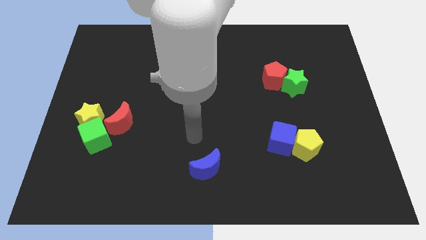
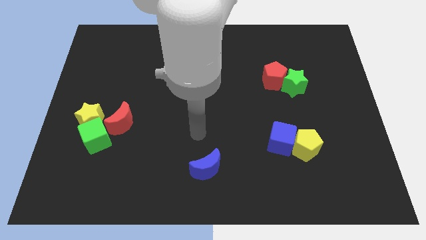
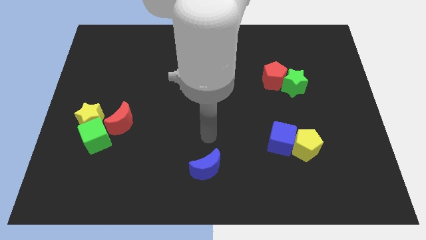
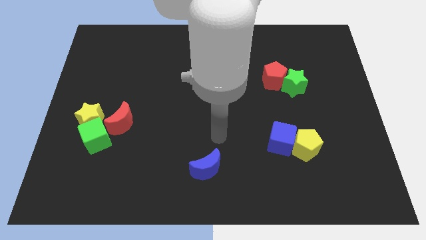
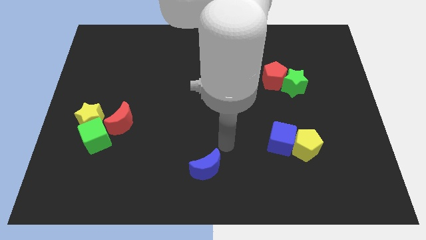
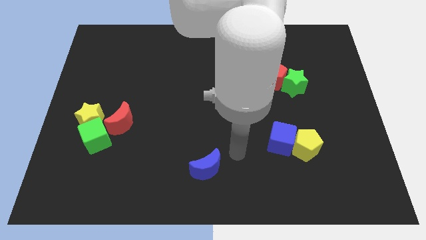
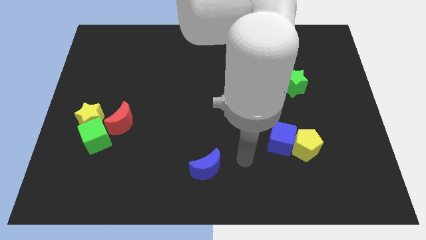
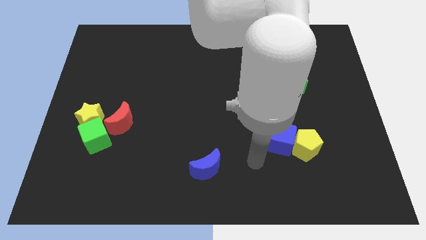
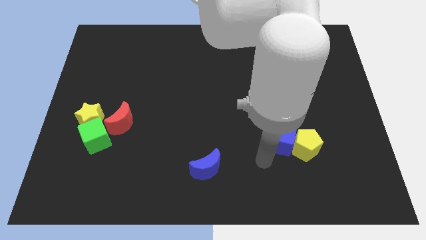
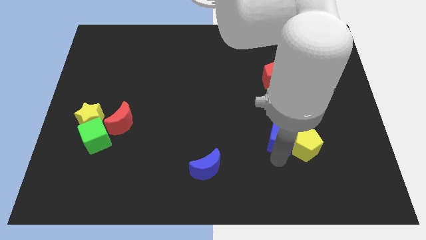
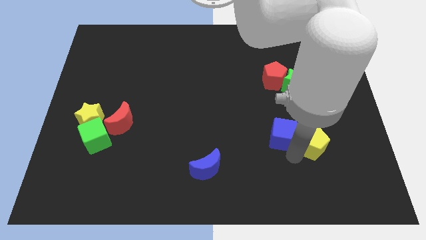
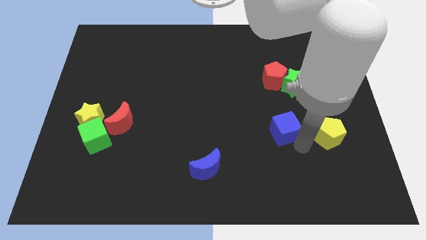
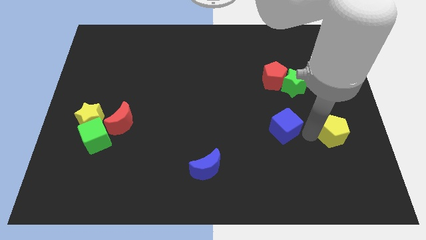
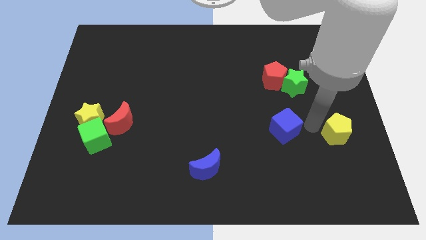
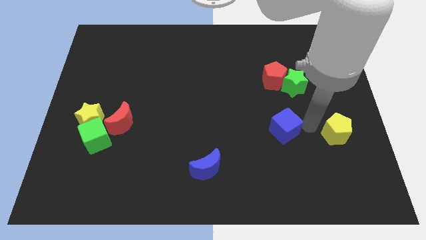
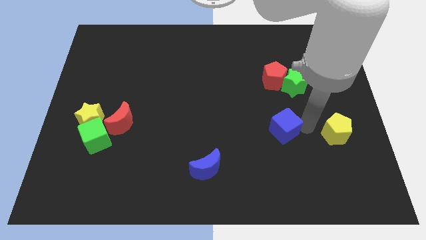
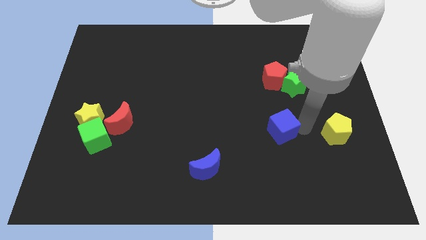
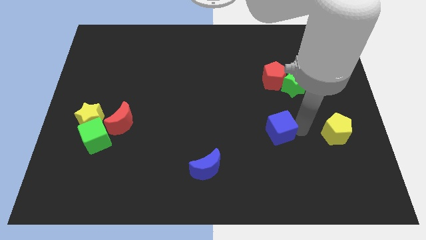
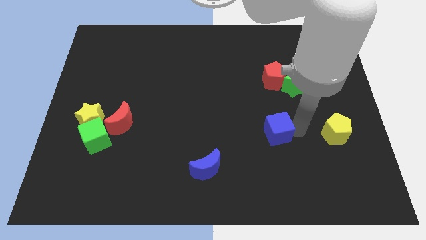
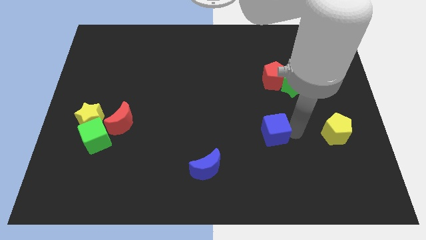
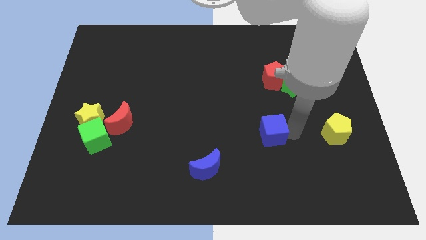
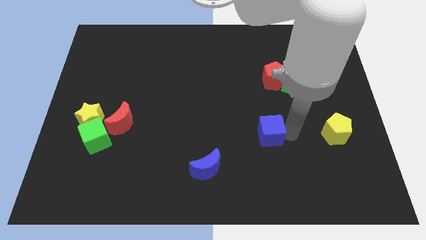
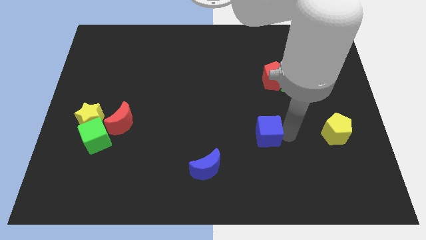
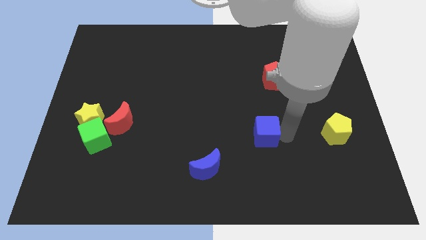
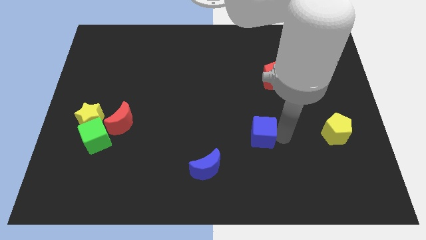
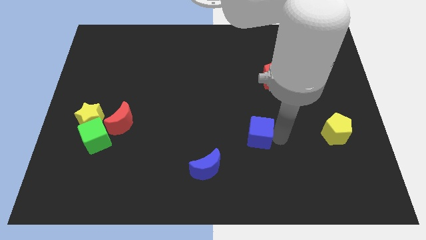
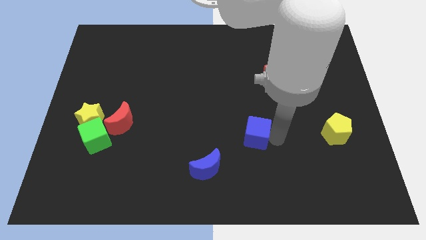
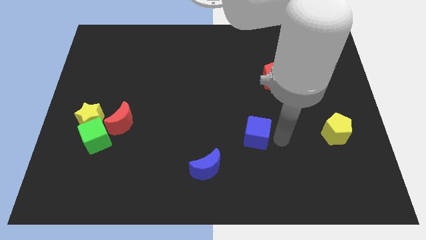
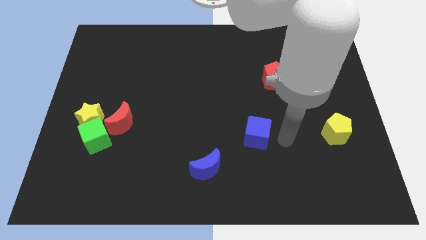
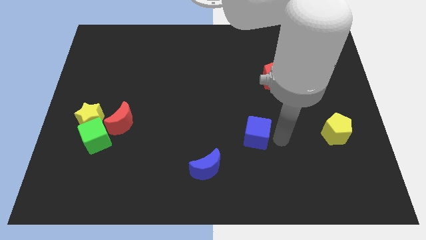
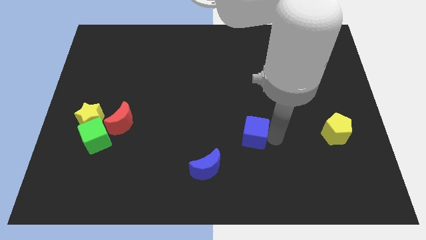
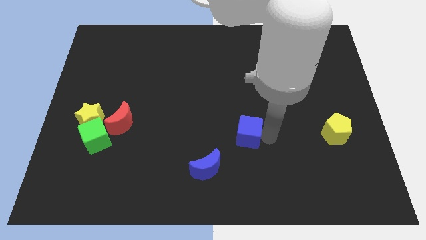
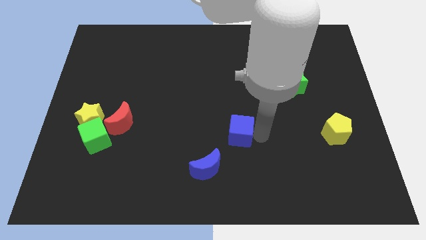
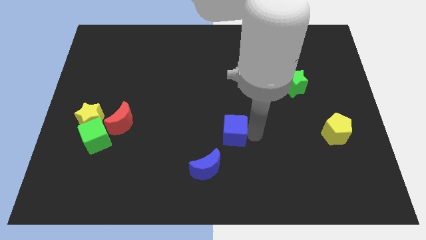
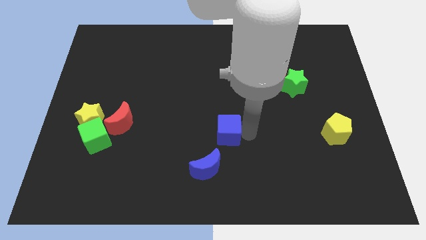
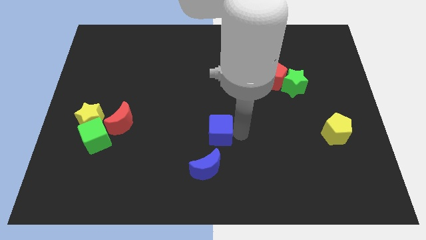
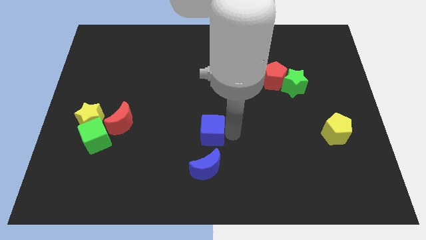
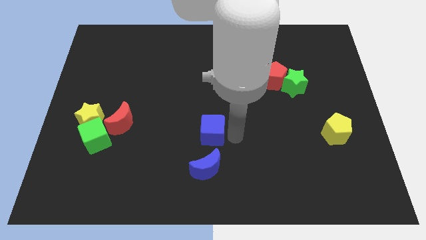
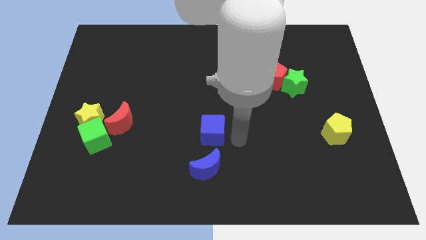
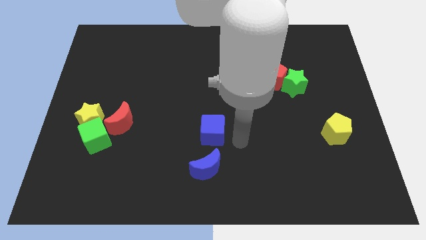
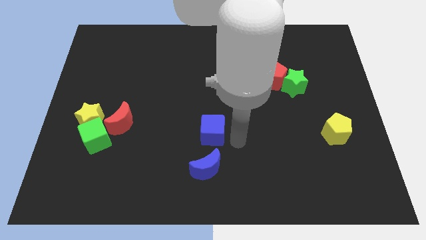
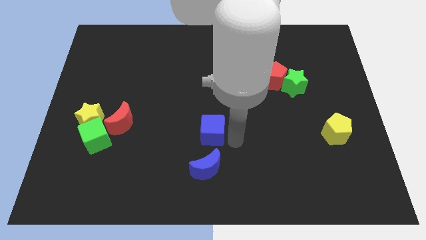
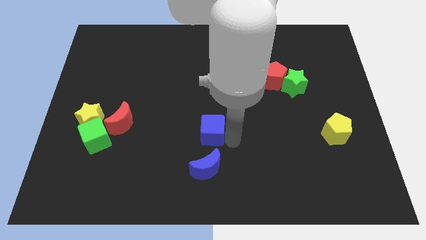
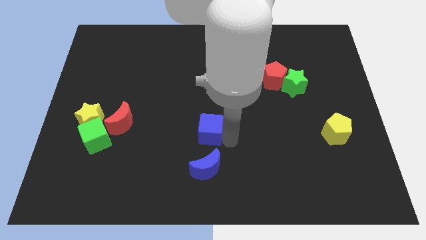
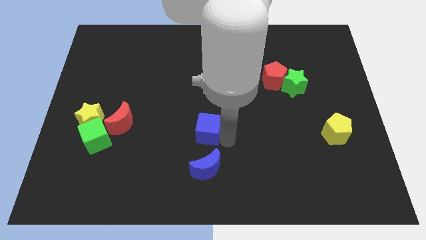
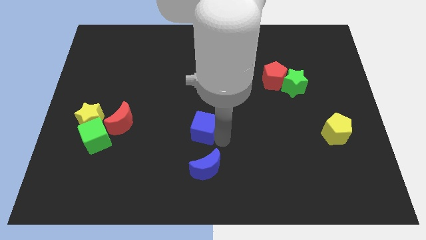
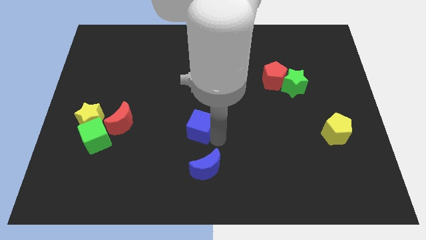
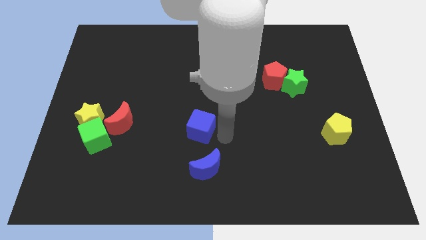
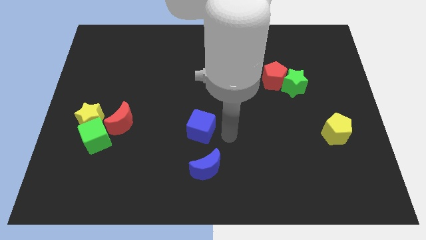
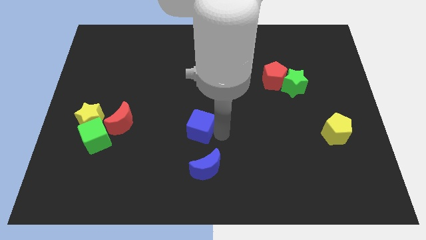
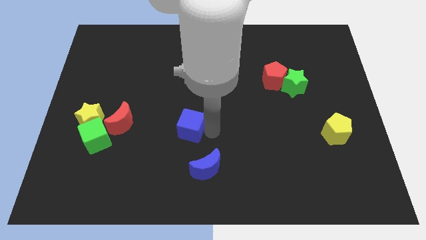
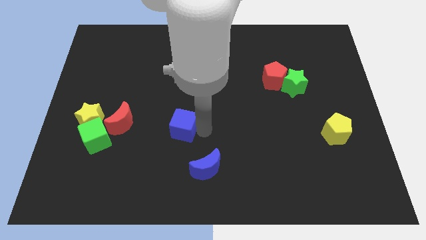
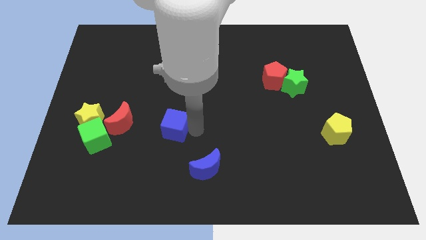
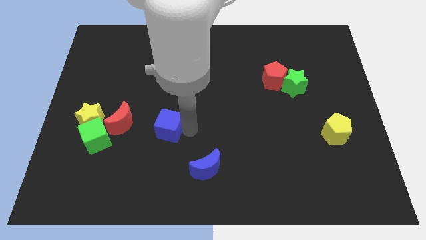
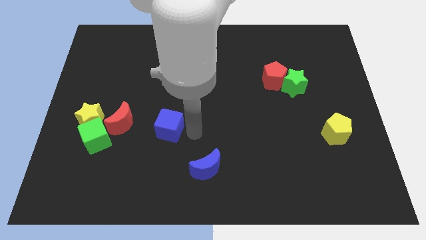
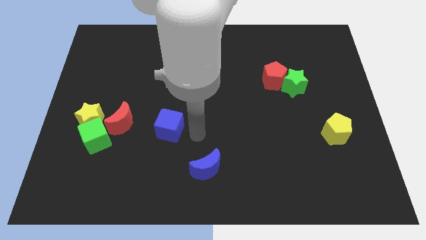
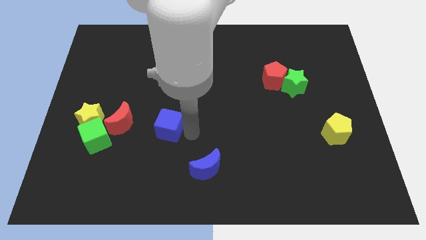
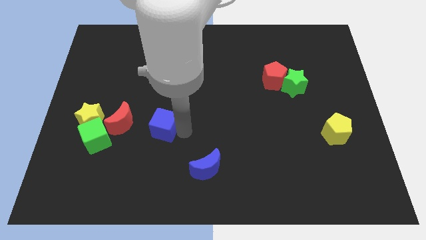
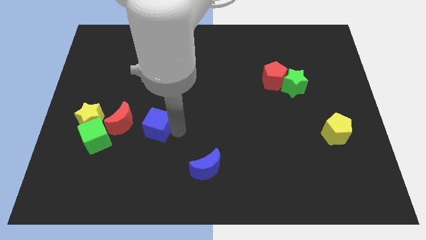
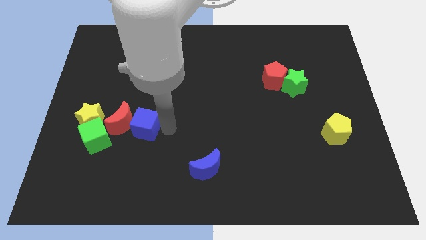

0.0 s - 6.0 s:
move the blue cube next to the red moon

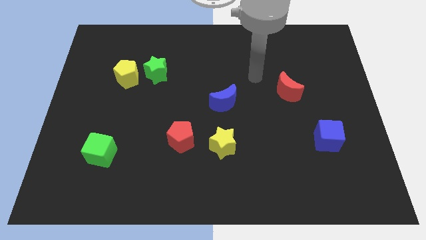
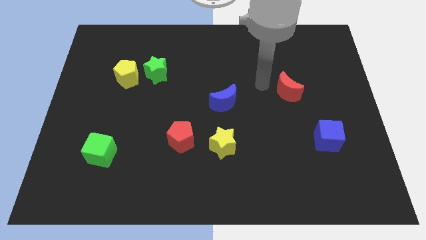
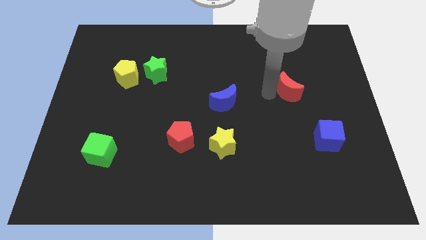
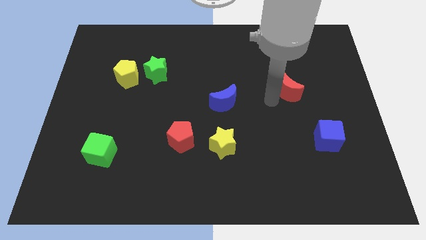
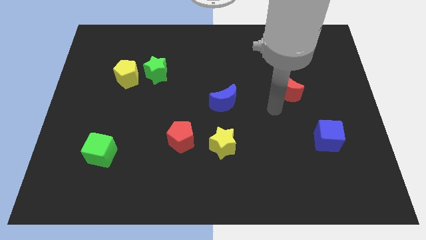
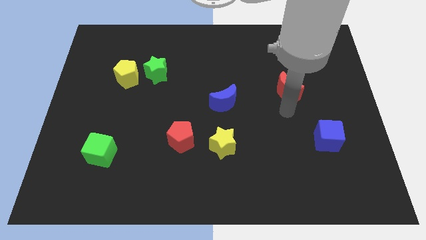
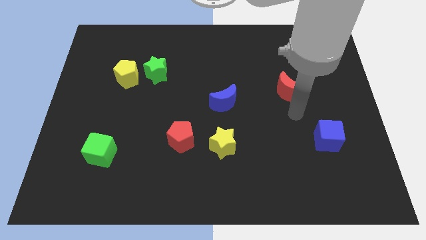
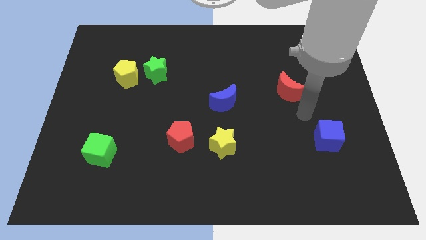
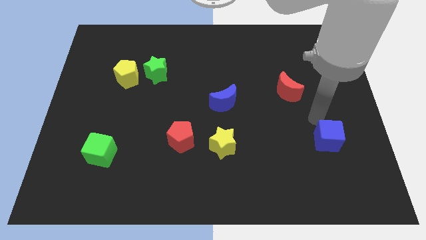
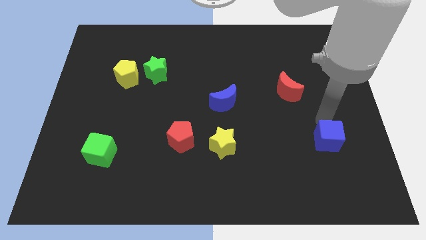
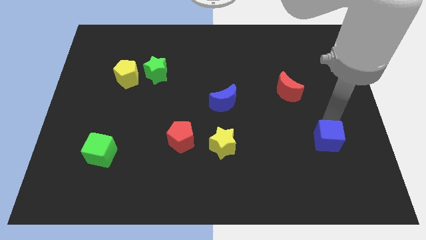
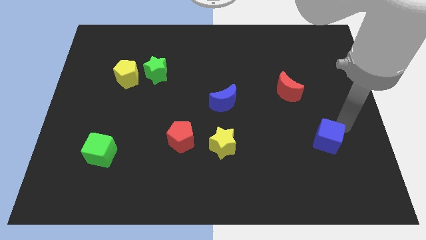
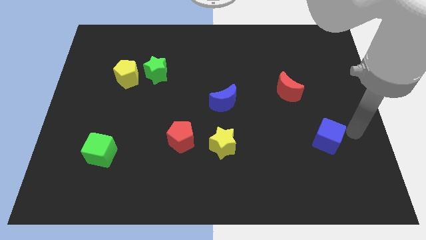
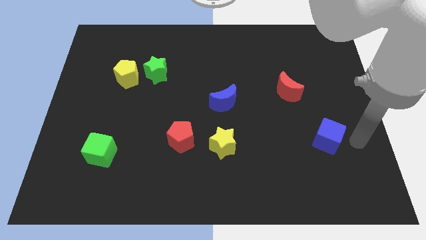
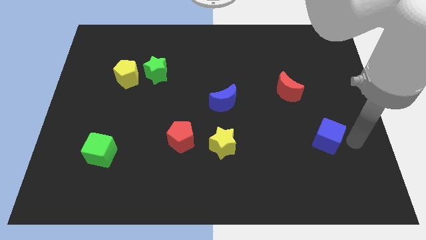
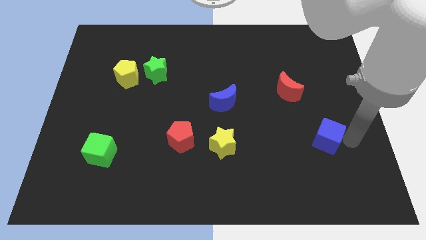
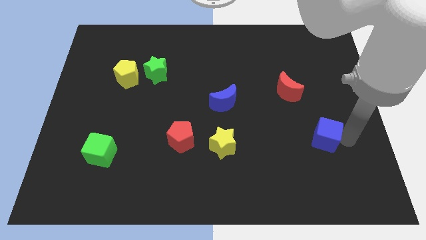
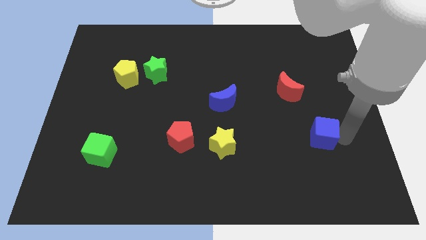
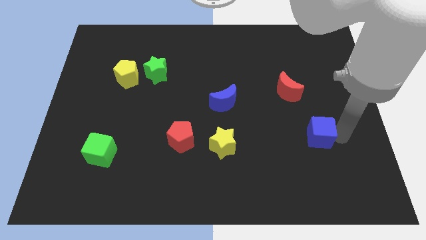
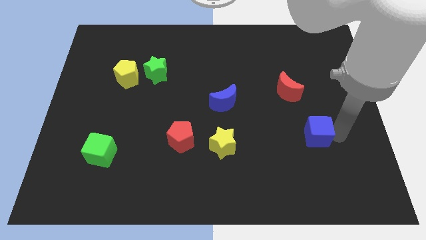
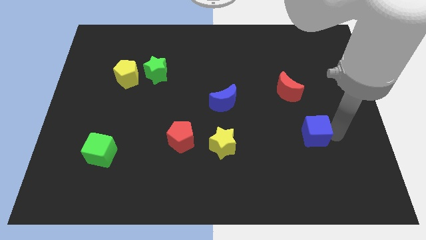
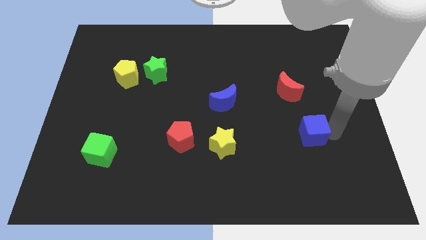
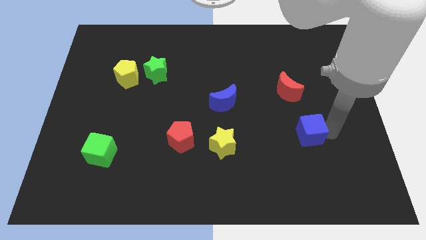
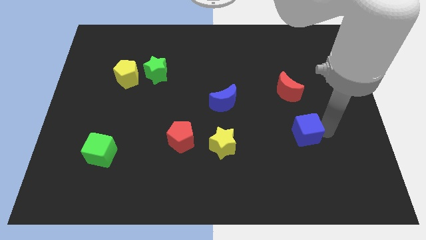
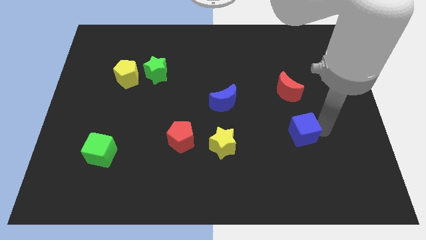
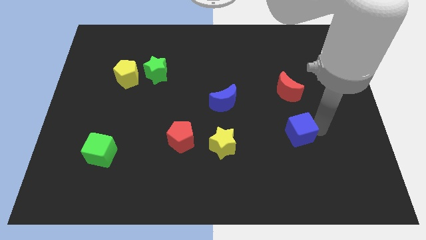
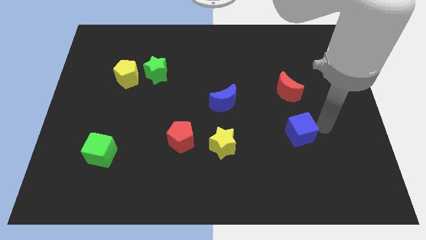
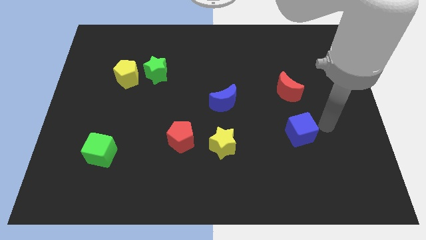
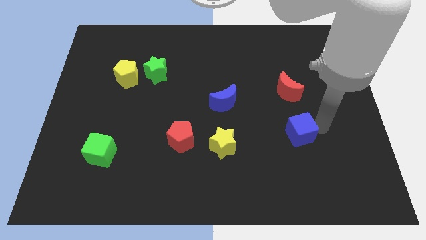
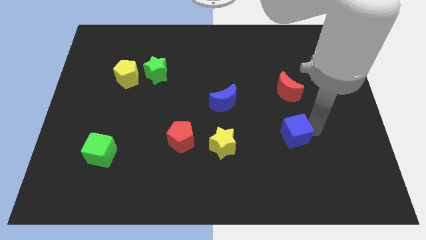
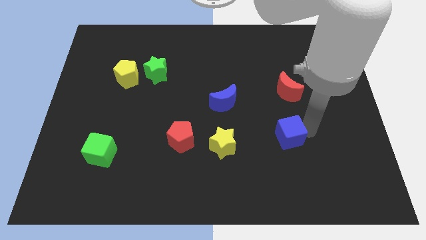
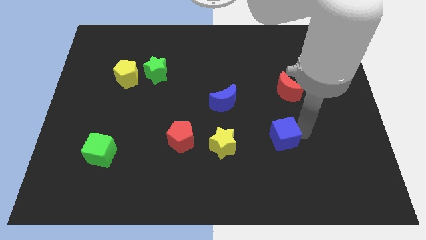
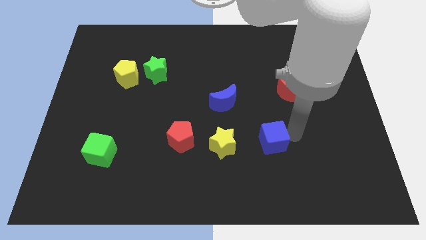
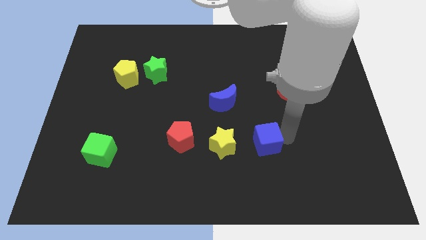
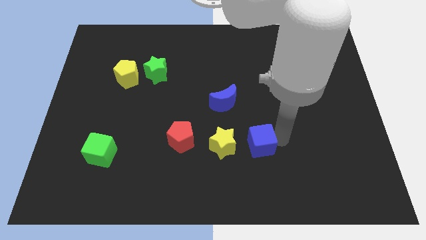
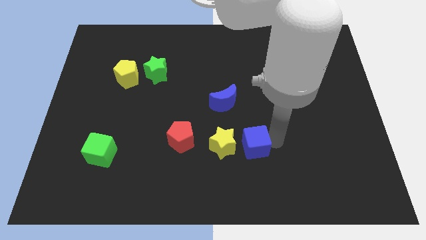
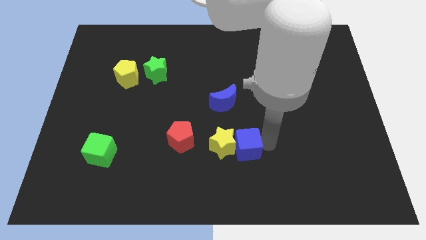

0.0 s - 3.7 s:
put the blue cube towards the yellow star
